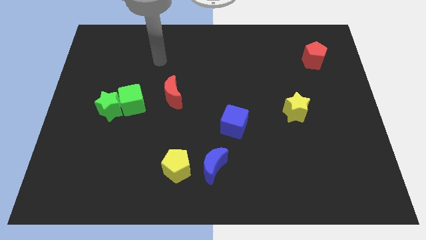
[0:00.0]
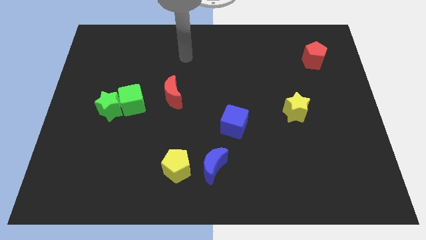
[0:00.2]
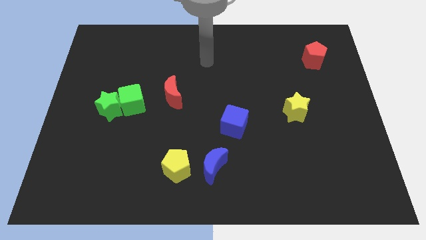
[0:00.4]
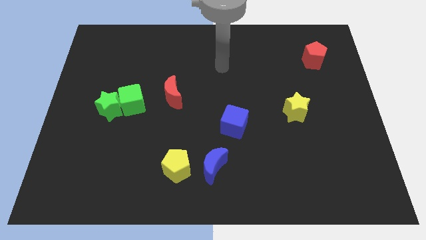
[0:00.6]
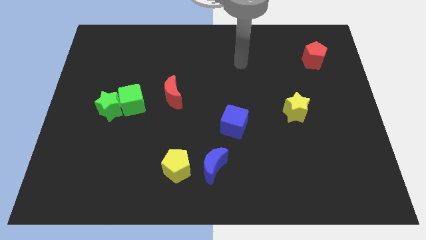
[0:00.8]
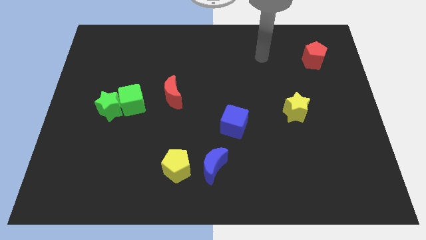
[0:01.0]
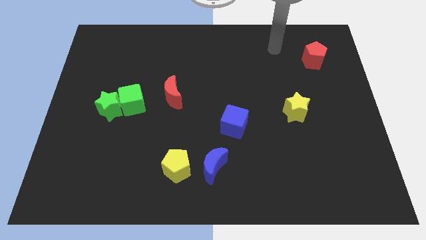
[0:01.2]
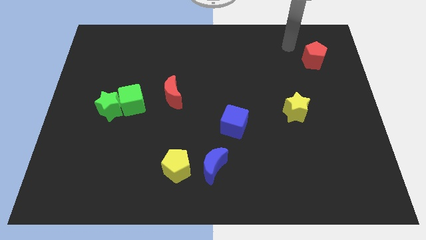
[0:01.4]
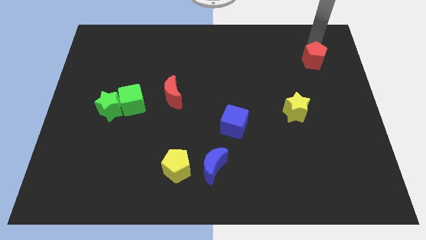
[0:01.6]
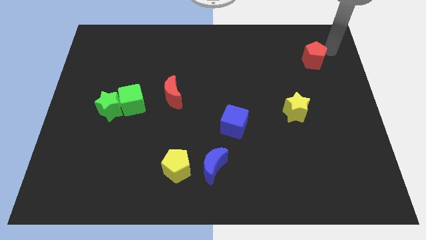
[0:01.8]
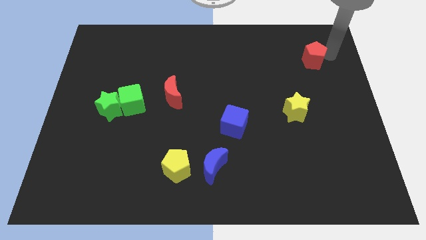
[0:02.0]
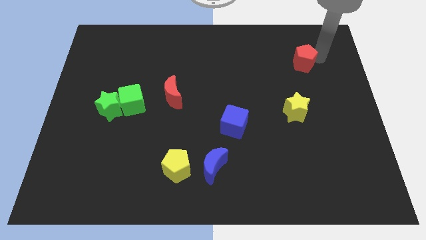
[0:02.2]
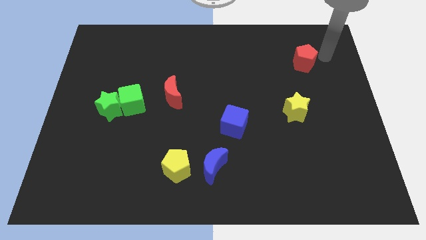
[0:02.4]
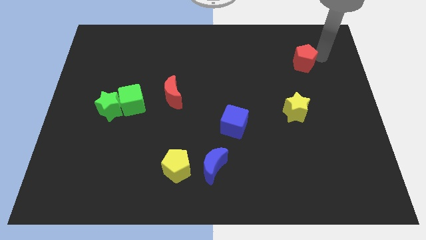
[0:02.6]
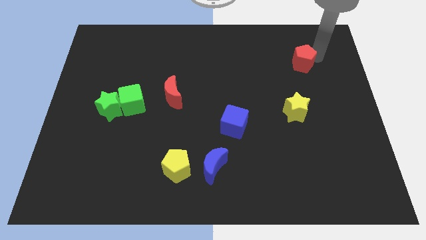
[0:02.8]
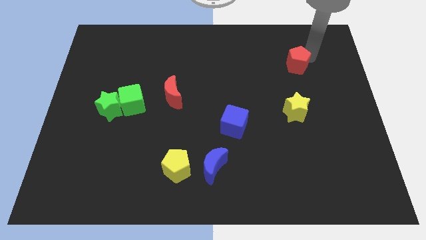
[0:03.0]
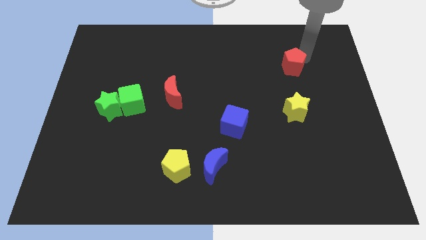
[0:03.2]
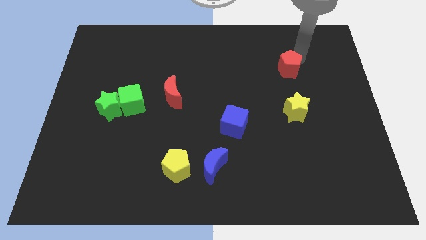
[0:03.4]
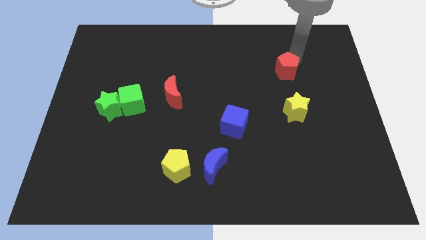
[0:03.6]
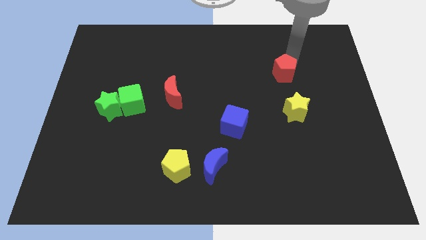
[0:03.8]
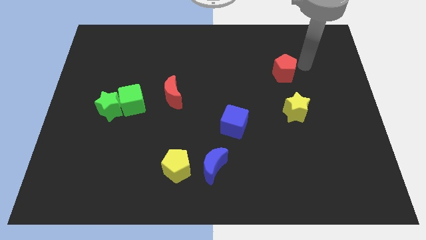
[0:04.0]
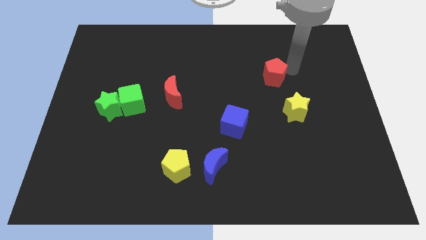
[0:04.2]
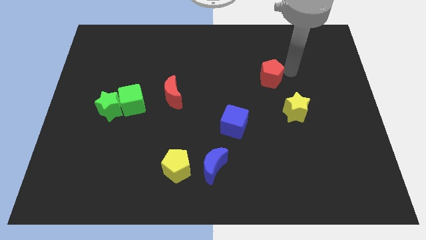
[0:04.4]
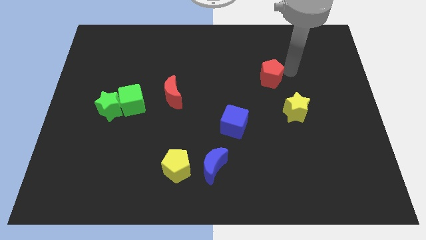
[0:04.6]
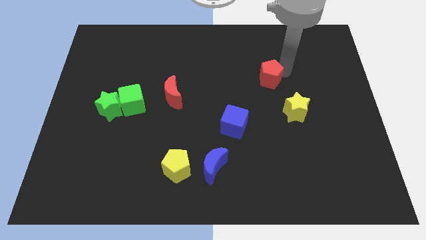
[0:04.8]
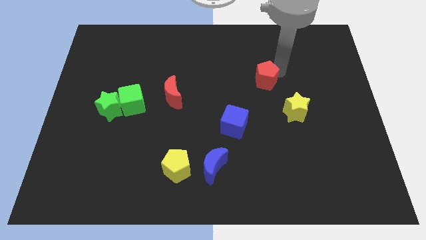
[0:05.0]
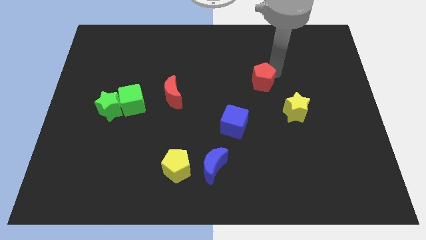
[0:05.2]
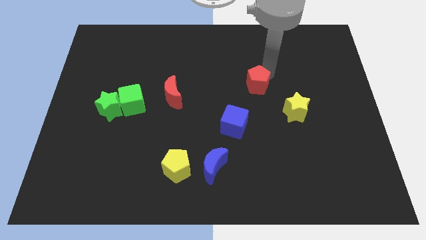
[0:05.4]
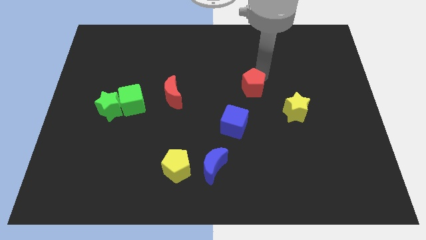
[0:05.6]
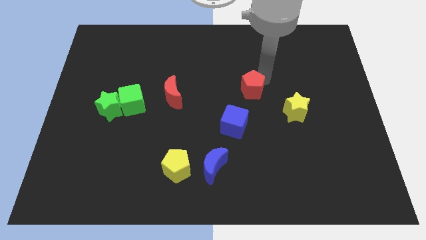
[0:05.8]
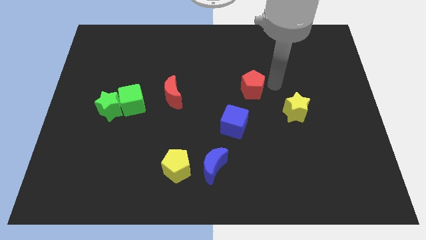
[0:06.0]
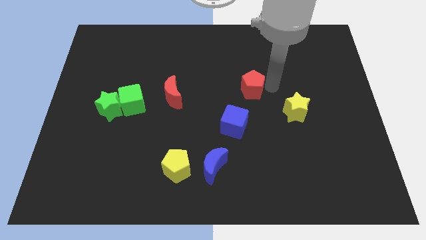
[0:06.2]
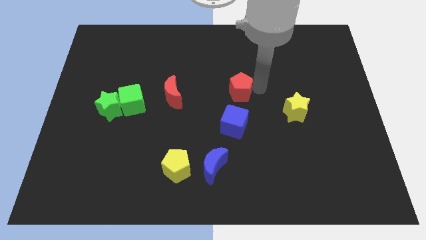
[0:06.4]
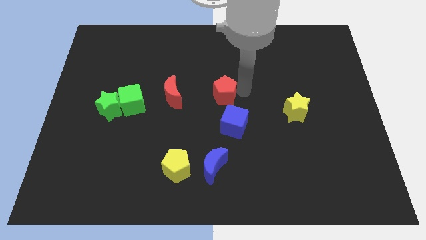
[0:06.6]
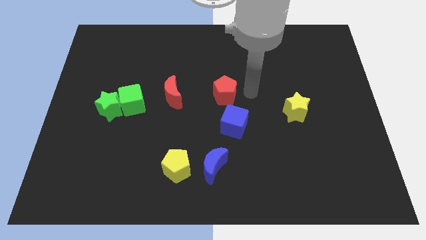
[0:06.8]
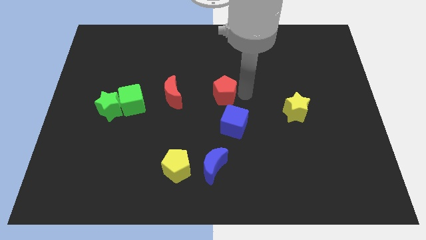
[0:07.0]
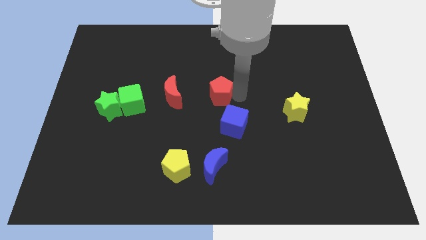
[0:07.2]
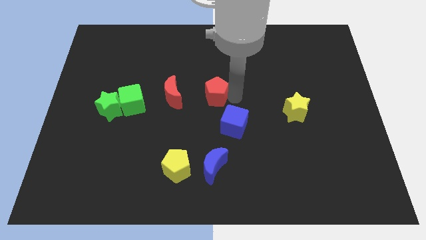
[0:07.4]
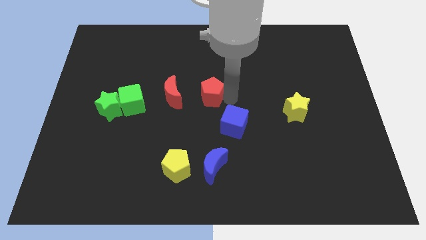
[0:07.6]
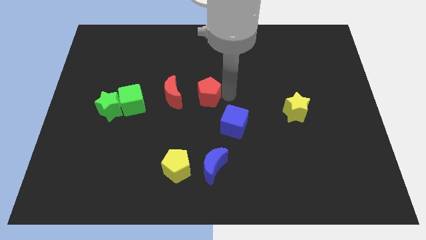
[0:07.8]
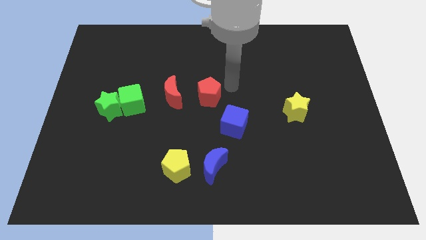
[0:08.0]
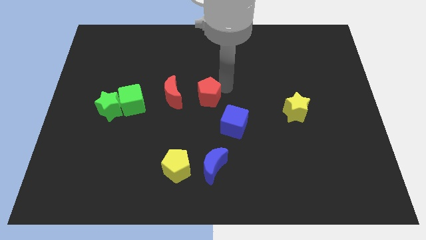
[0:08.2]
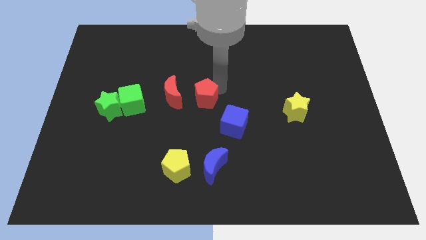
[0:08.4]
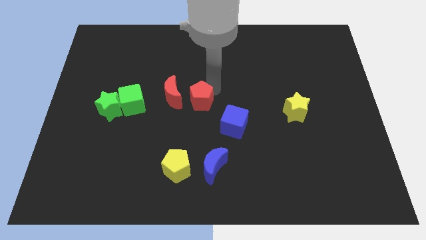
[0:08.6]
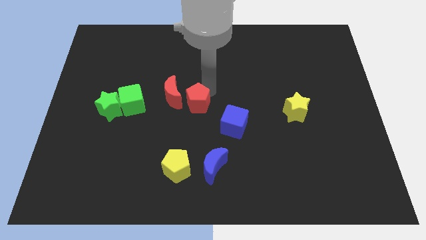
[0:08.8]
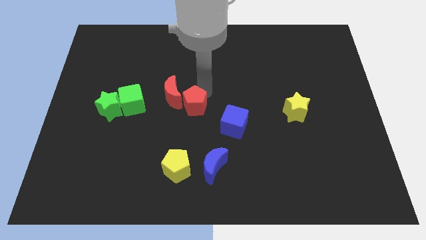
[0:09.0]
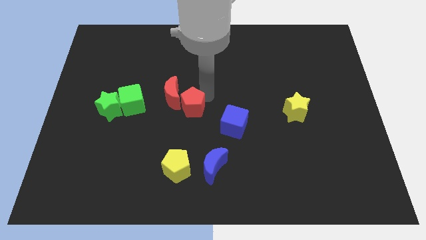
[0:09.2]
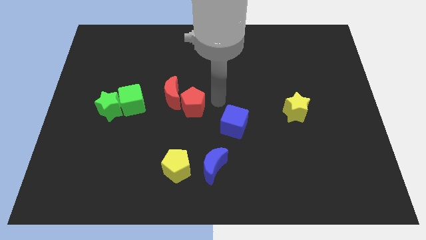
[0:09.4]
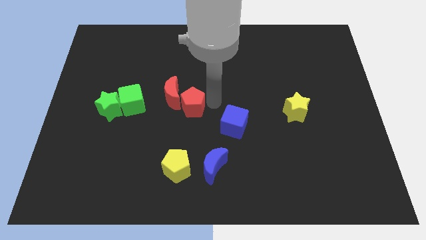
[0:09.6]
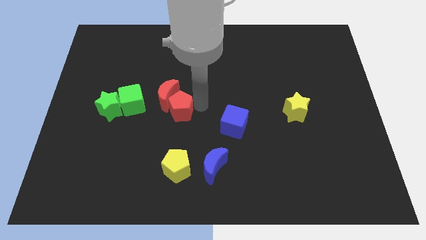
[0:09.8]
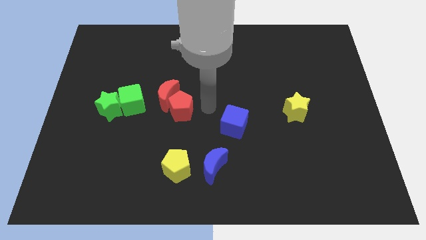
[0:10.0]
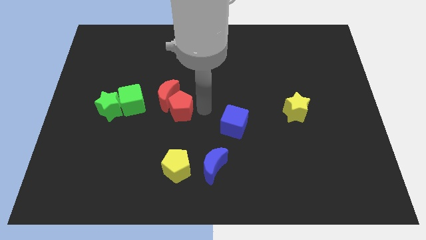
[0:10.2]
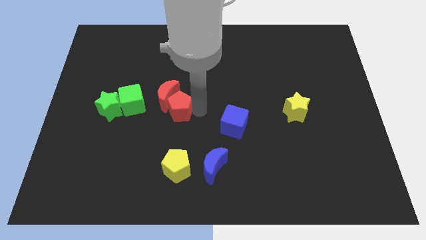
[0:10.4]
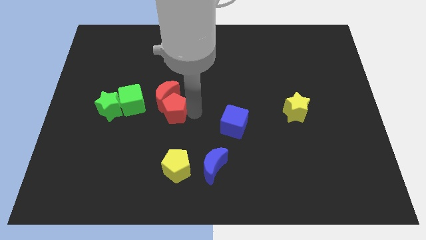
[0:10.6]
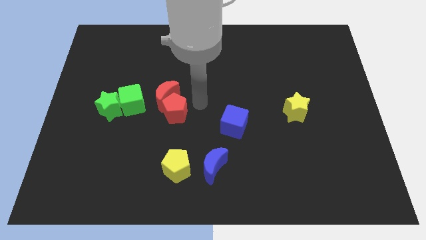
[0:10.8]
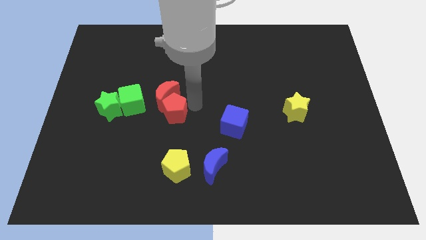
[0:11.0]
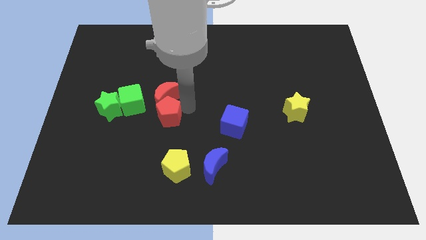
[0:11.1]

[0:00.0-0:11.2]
push the red pentagon to the bottom right side of the green cube
